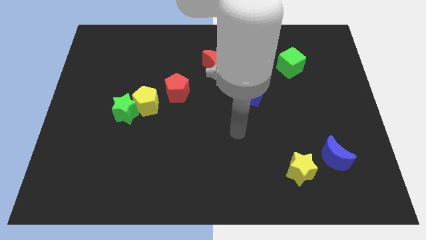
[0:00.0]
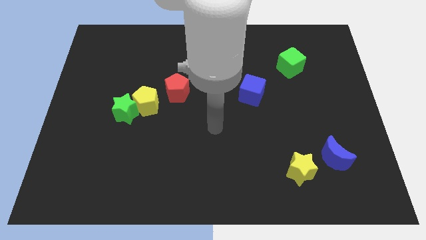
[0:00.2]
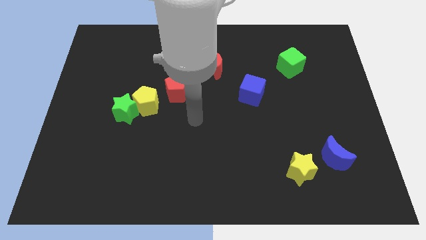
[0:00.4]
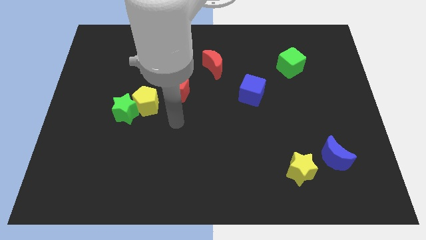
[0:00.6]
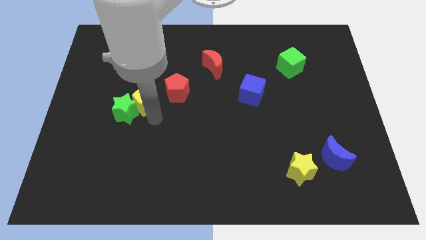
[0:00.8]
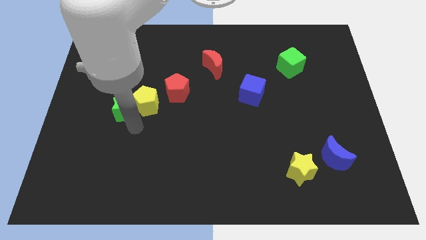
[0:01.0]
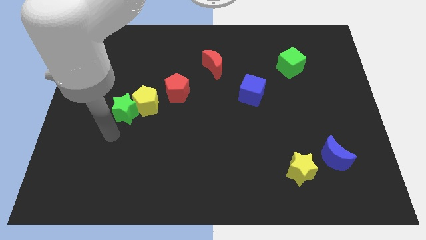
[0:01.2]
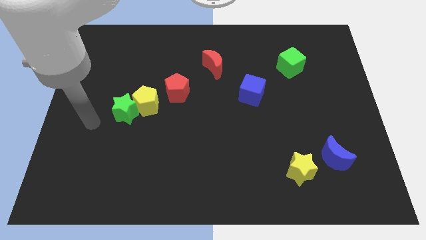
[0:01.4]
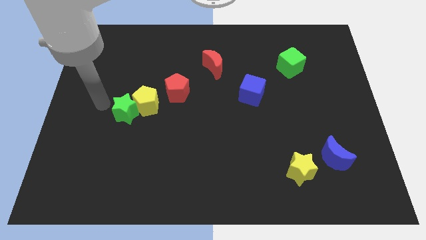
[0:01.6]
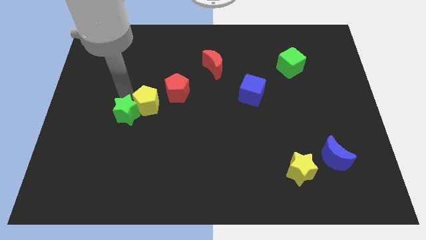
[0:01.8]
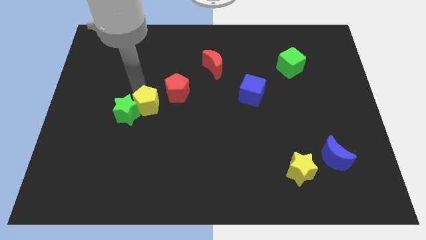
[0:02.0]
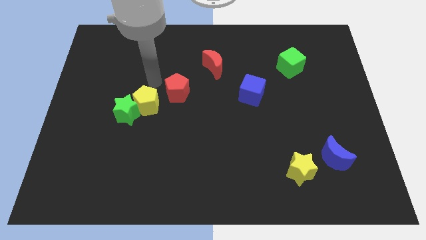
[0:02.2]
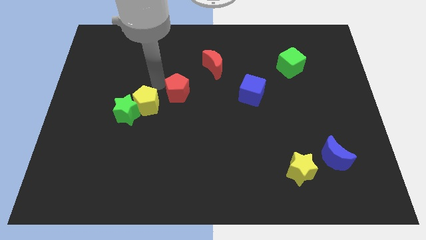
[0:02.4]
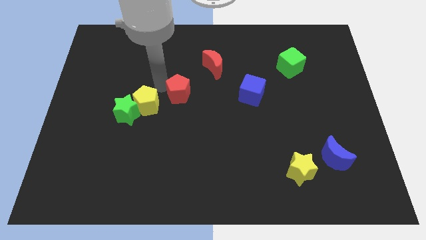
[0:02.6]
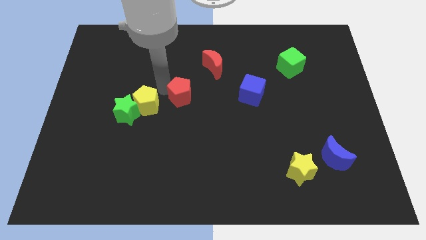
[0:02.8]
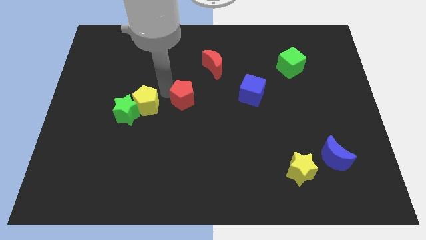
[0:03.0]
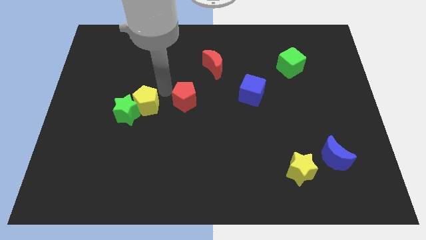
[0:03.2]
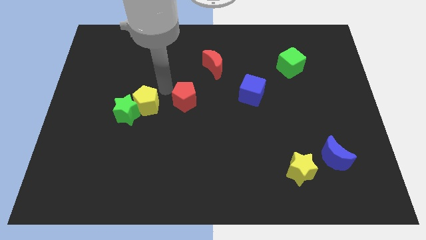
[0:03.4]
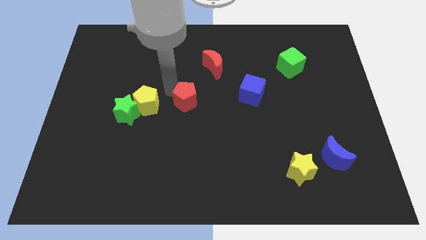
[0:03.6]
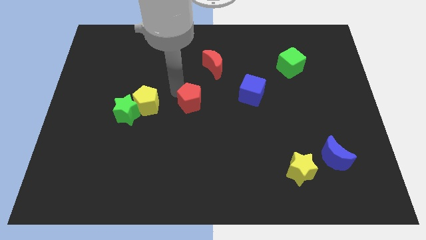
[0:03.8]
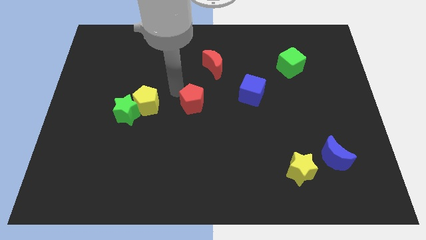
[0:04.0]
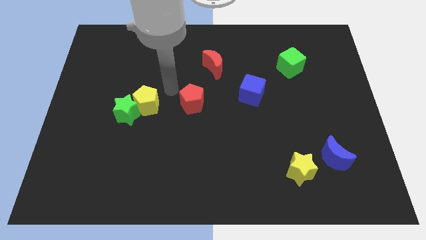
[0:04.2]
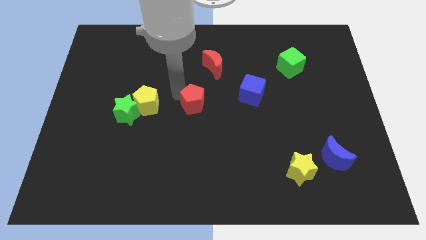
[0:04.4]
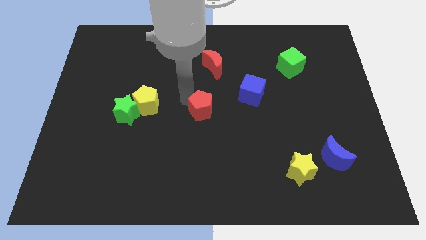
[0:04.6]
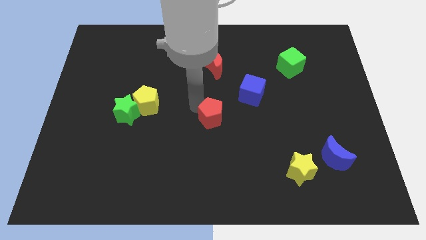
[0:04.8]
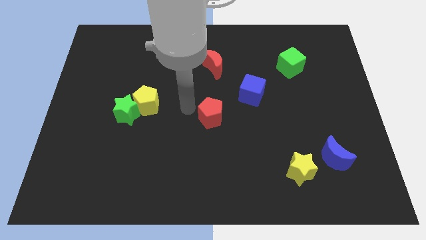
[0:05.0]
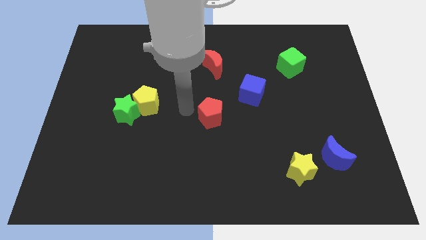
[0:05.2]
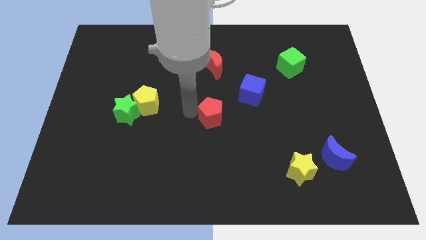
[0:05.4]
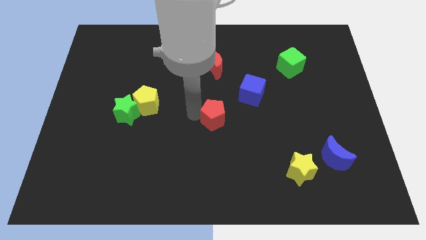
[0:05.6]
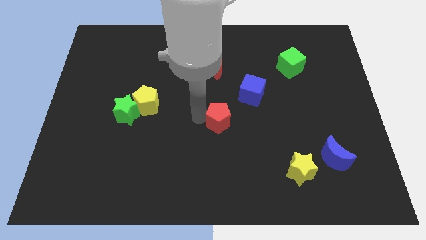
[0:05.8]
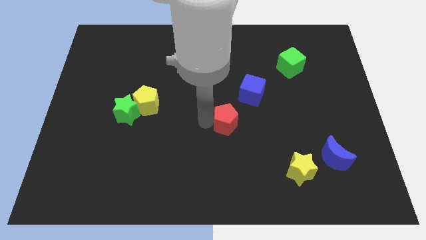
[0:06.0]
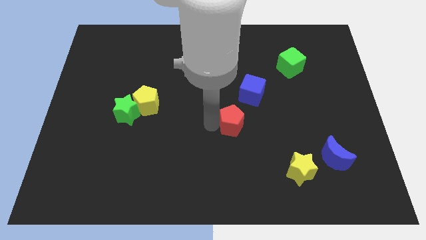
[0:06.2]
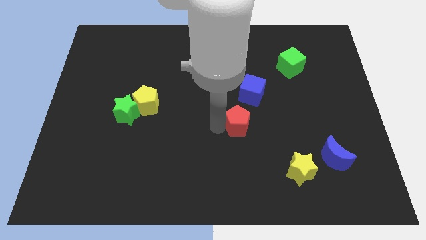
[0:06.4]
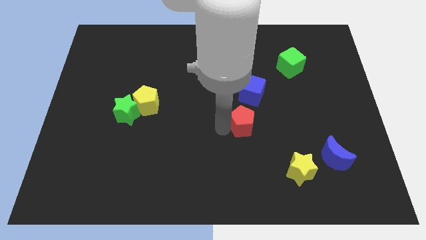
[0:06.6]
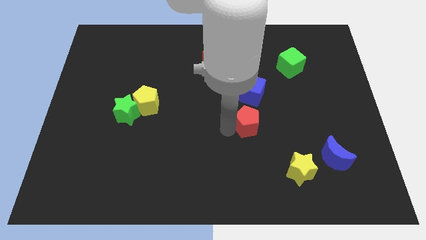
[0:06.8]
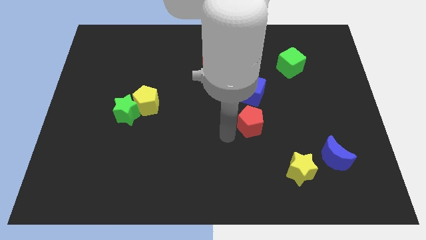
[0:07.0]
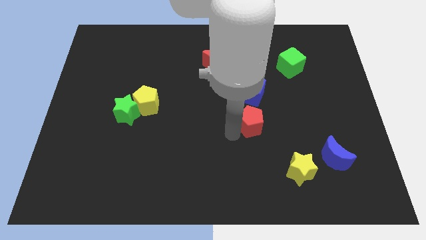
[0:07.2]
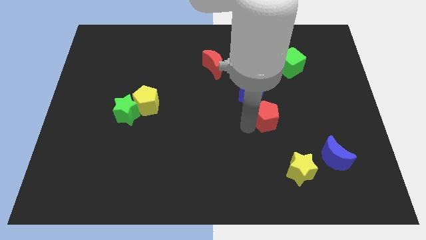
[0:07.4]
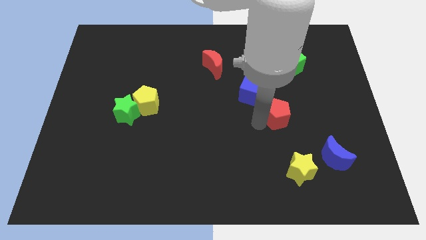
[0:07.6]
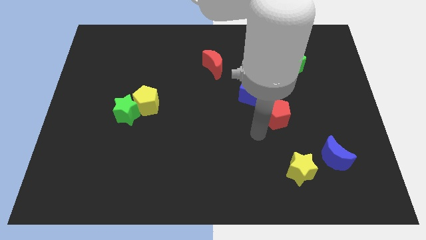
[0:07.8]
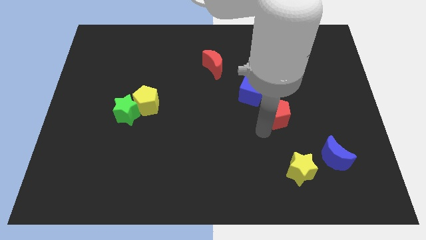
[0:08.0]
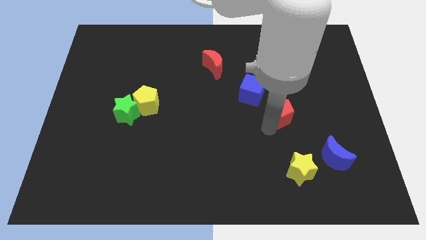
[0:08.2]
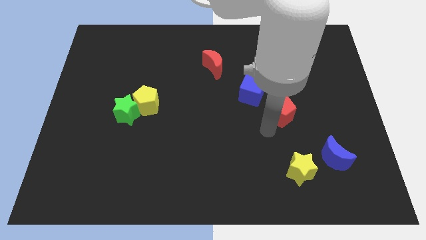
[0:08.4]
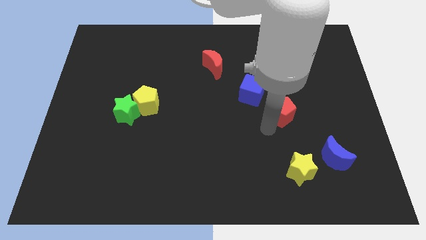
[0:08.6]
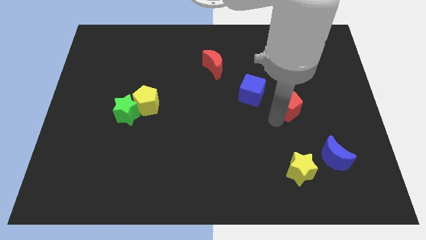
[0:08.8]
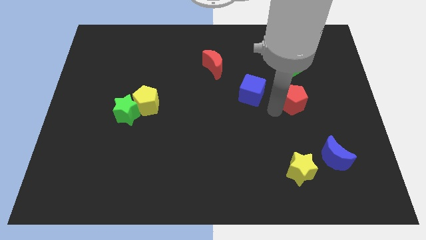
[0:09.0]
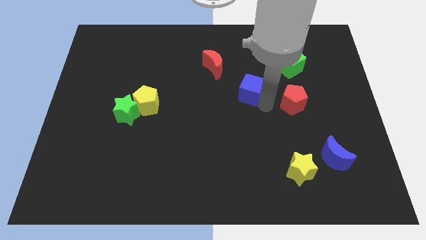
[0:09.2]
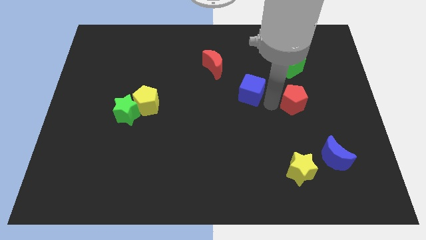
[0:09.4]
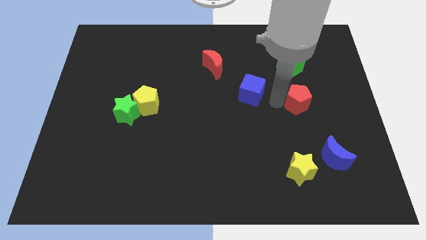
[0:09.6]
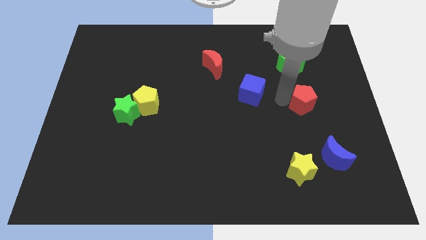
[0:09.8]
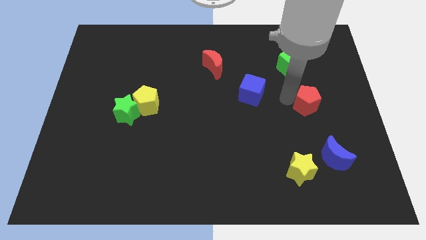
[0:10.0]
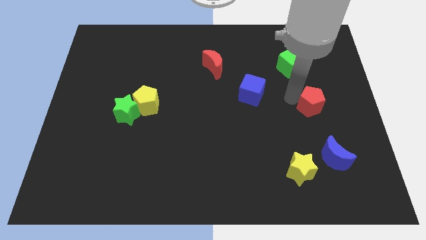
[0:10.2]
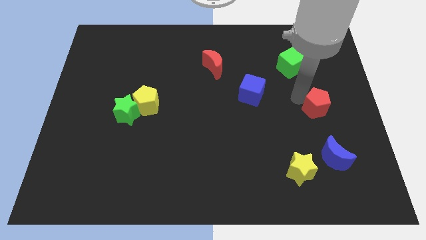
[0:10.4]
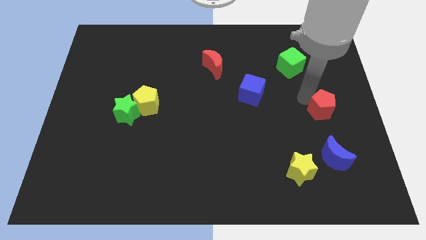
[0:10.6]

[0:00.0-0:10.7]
slide the red pentagon to the right side of the board
